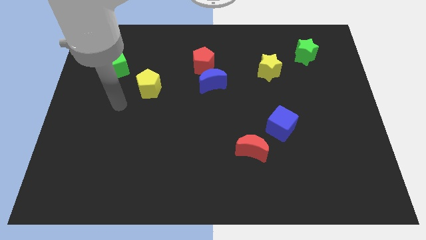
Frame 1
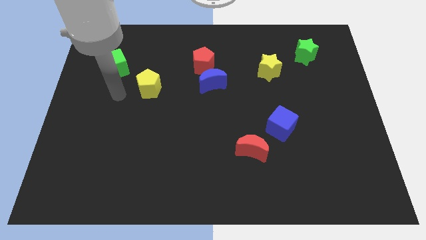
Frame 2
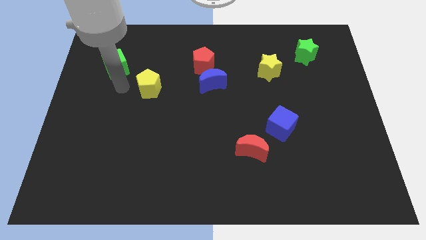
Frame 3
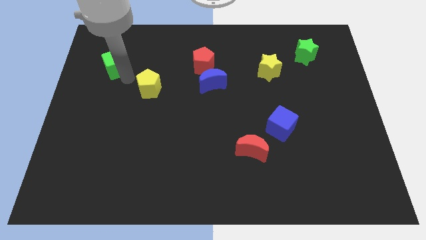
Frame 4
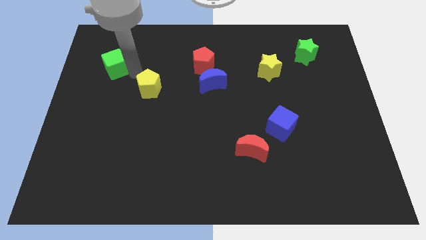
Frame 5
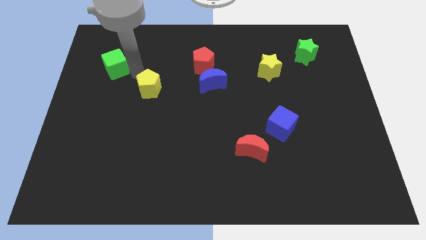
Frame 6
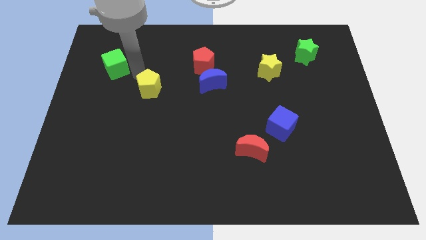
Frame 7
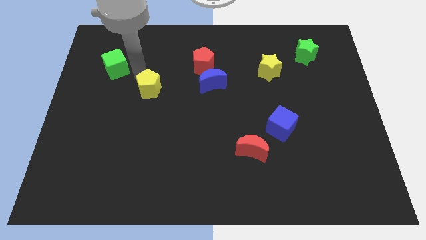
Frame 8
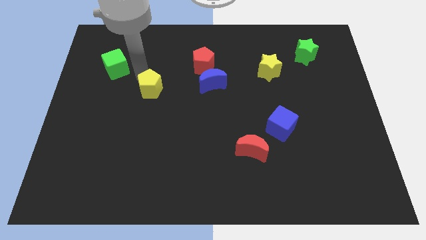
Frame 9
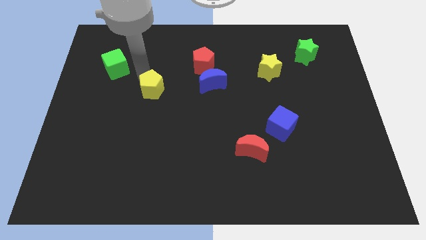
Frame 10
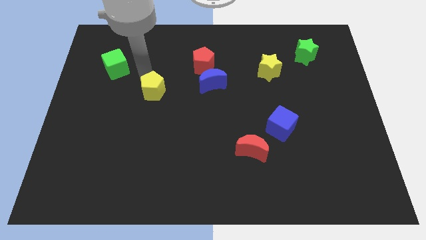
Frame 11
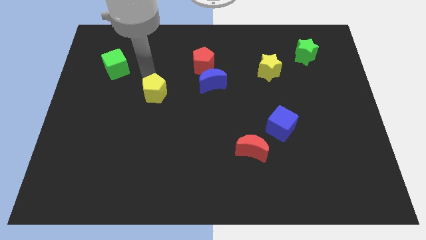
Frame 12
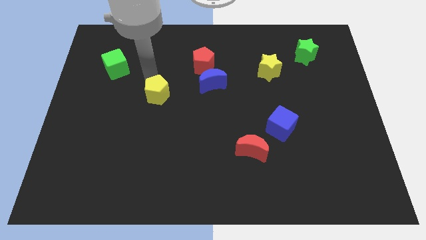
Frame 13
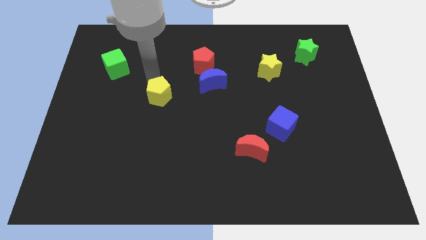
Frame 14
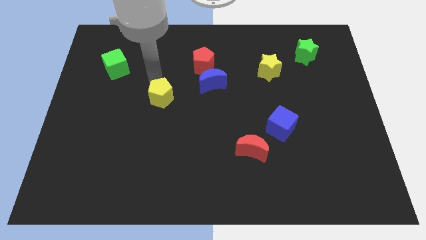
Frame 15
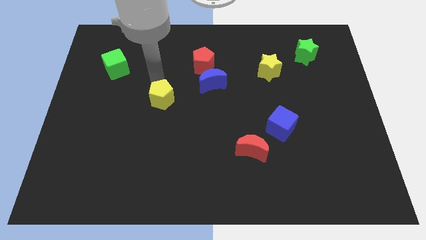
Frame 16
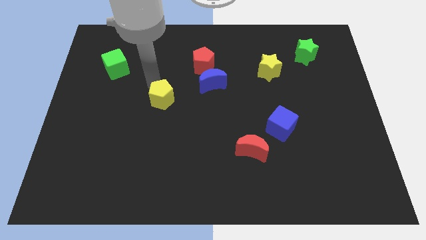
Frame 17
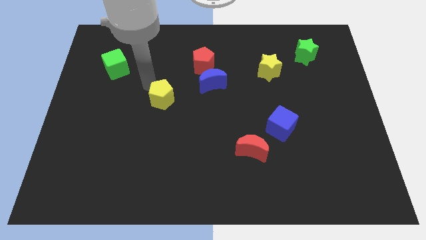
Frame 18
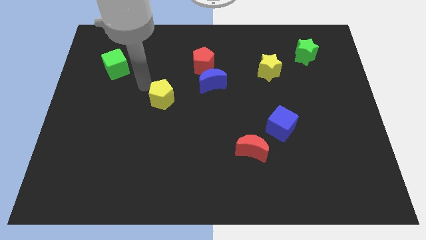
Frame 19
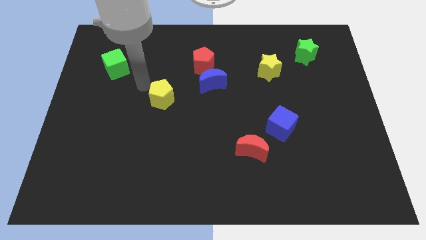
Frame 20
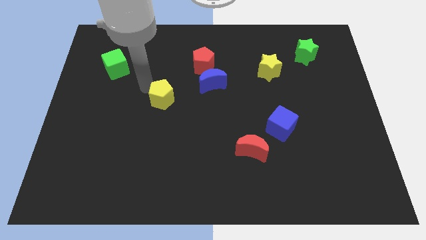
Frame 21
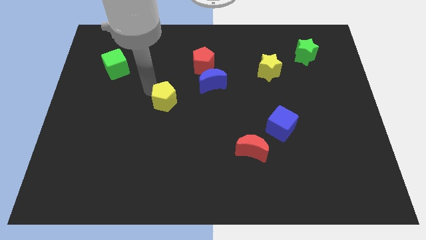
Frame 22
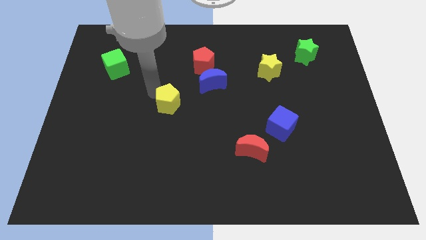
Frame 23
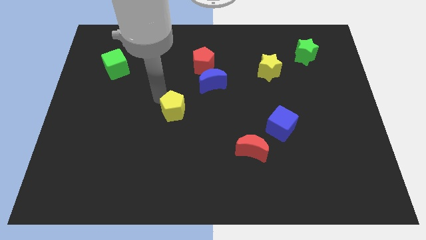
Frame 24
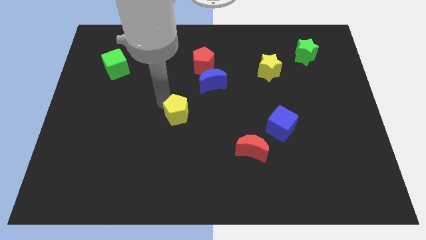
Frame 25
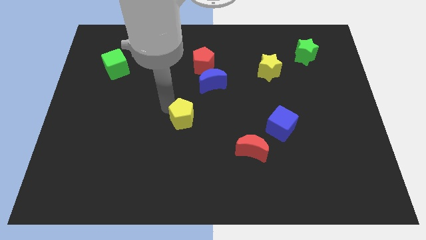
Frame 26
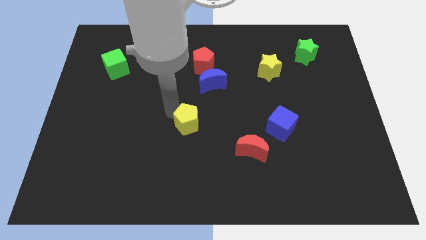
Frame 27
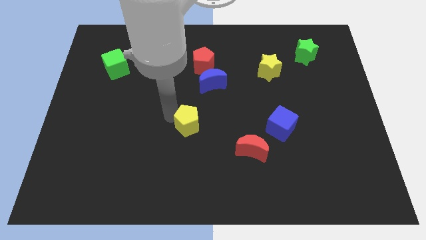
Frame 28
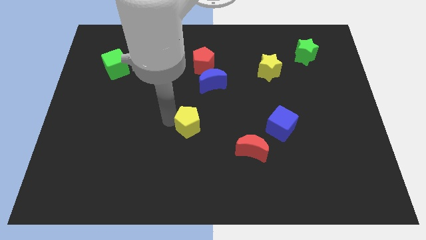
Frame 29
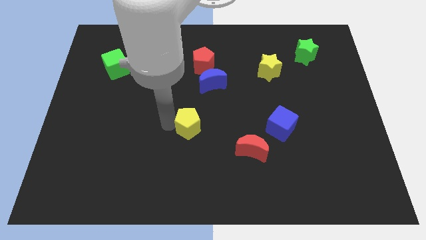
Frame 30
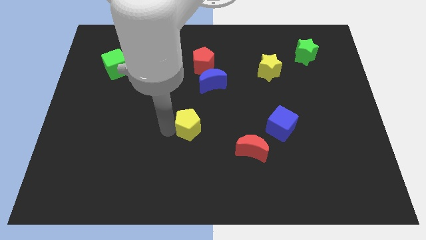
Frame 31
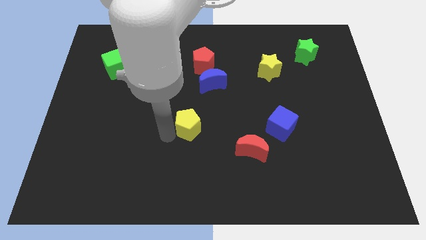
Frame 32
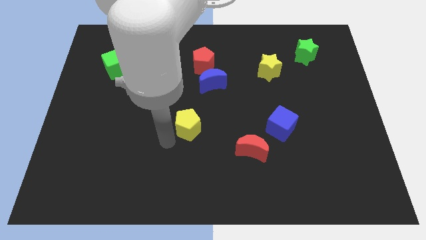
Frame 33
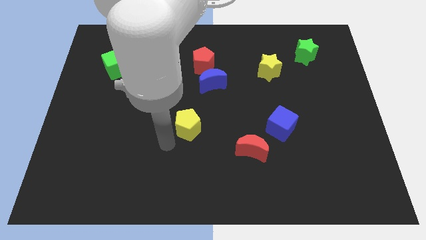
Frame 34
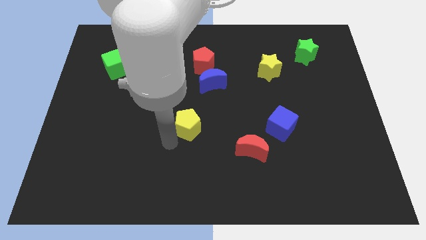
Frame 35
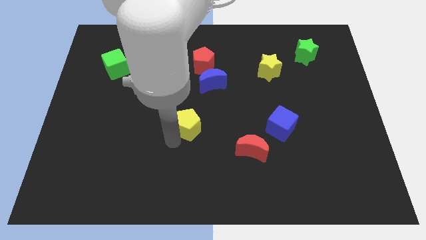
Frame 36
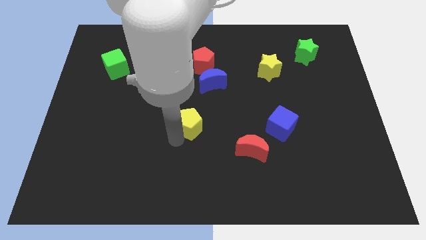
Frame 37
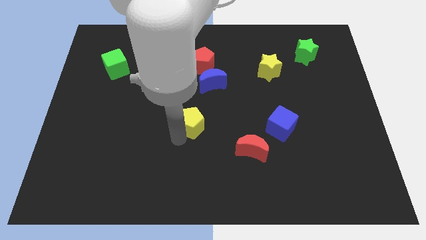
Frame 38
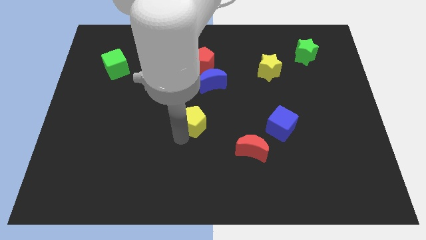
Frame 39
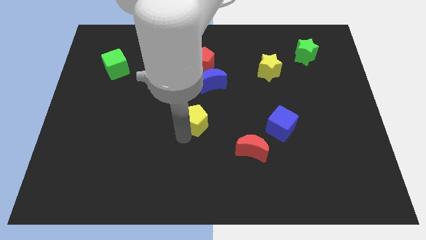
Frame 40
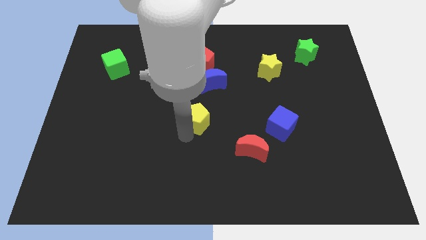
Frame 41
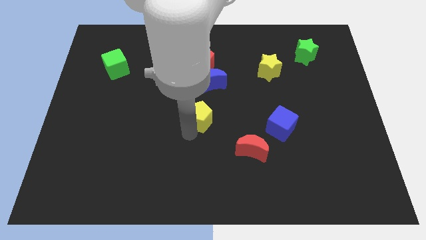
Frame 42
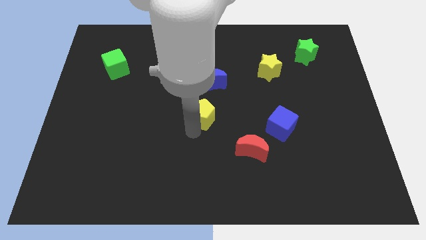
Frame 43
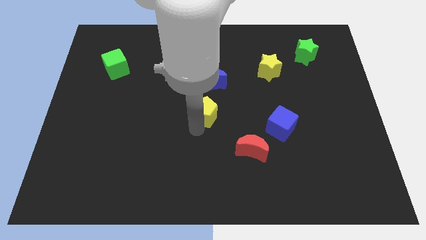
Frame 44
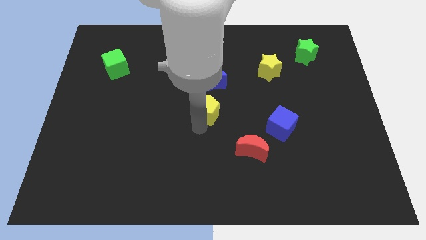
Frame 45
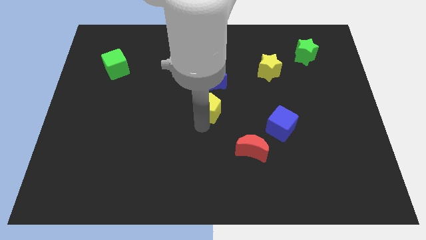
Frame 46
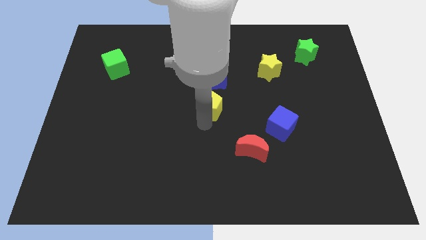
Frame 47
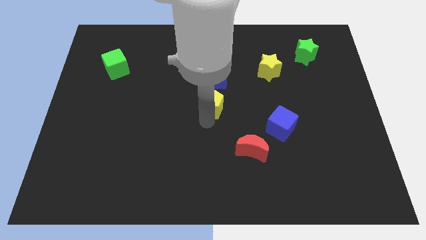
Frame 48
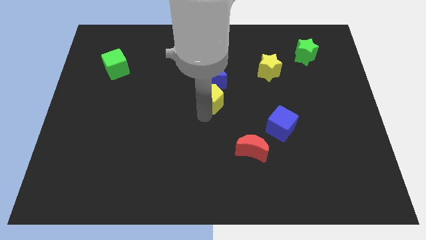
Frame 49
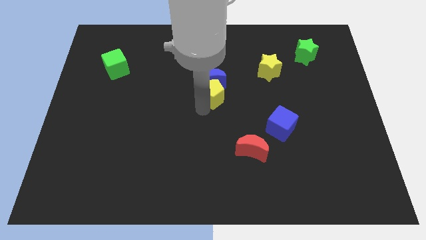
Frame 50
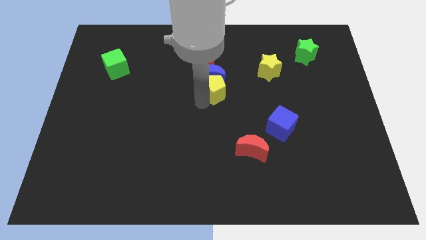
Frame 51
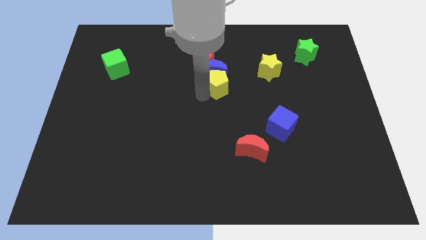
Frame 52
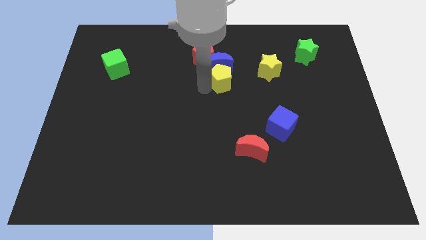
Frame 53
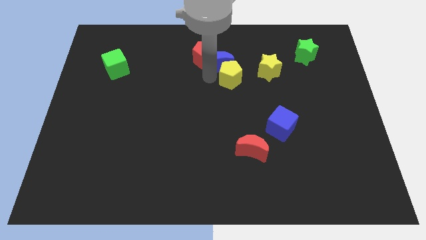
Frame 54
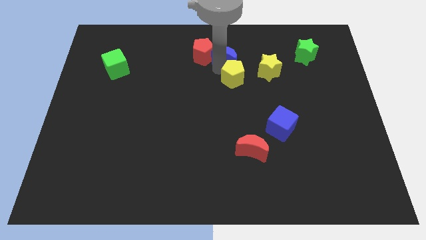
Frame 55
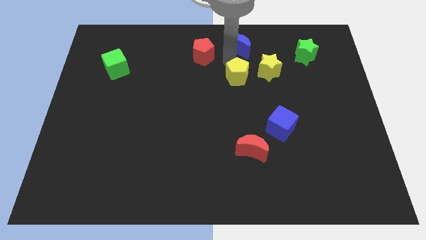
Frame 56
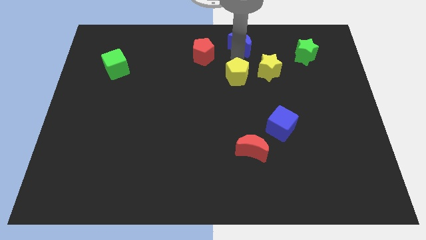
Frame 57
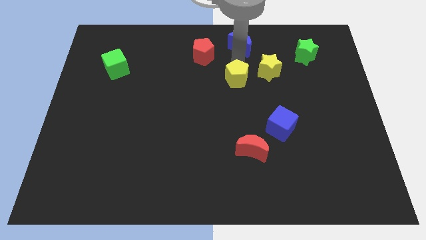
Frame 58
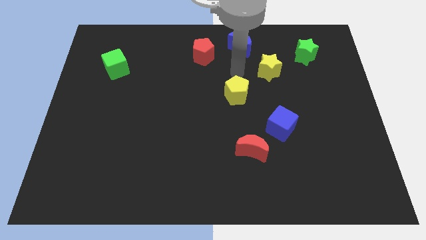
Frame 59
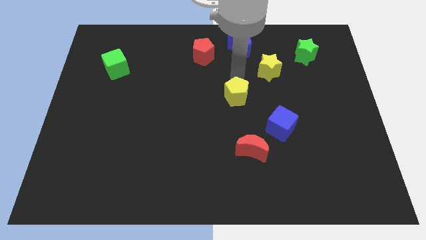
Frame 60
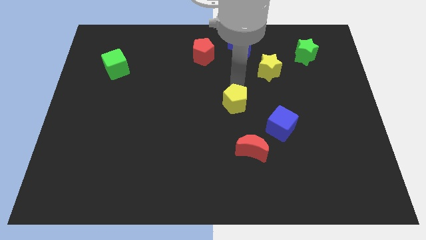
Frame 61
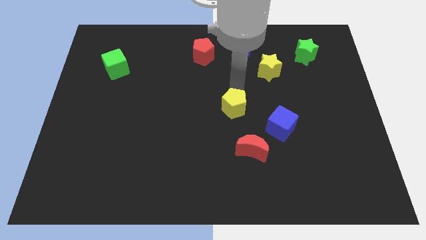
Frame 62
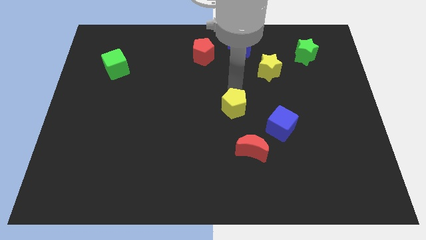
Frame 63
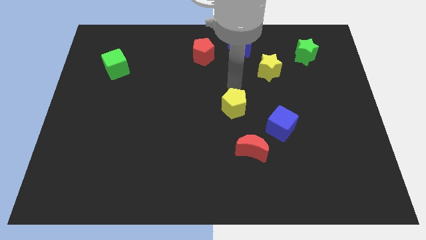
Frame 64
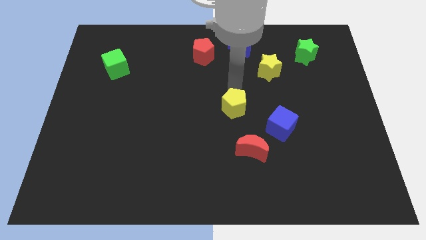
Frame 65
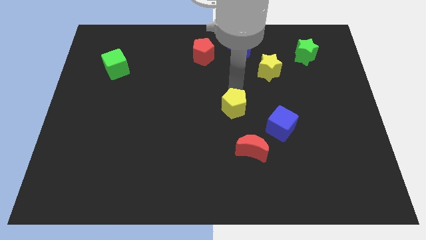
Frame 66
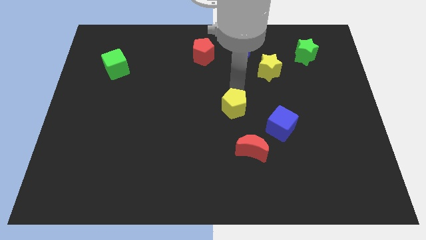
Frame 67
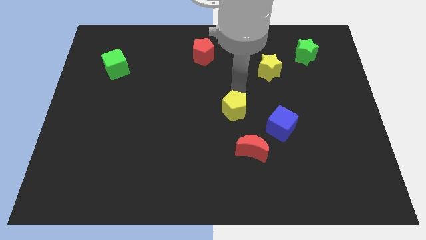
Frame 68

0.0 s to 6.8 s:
push the yellow pentagon left of the blue cube

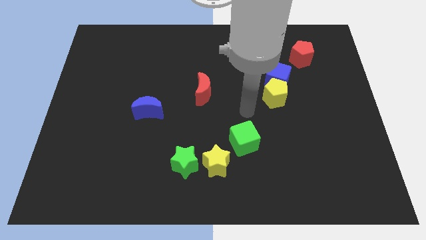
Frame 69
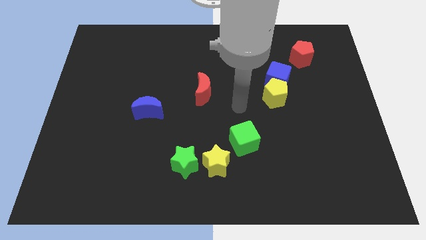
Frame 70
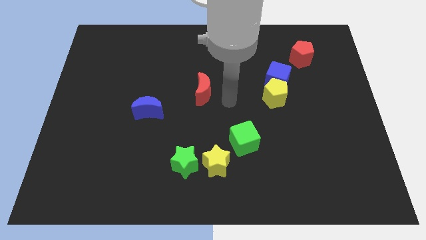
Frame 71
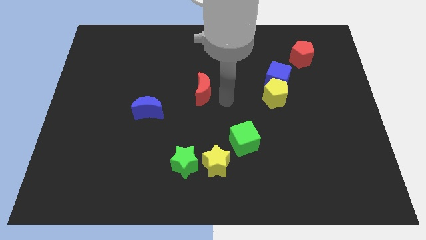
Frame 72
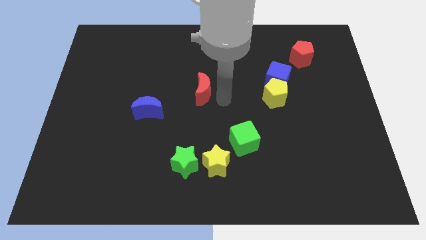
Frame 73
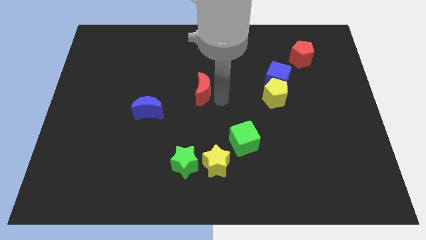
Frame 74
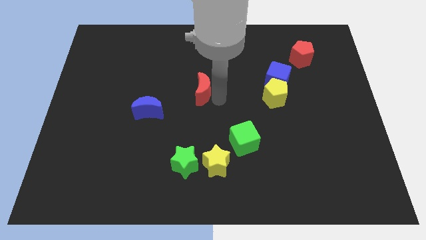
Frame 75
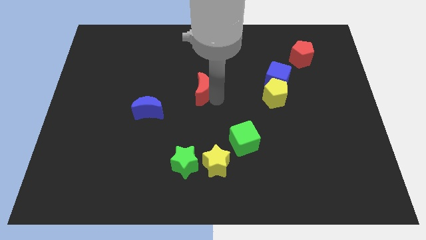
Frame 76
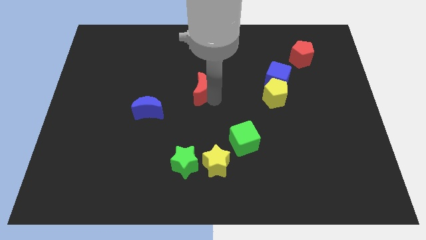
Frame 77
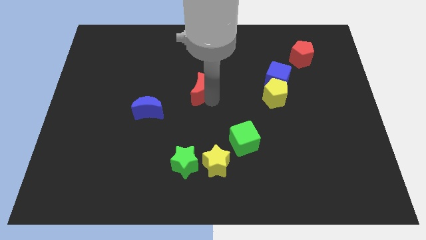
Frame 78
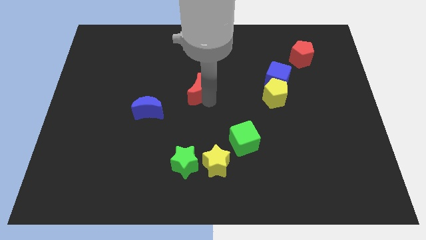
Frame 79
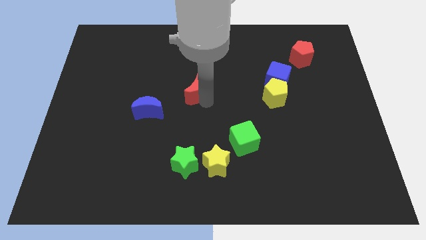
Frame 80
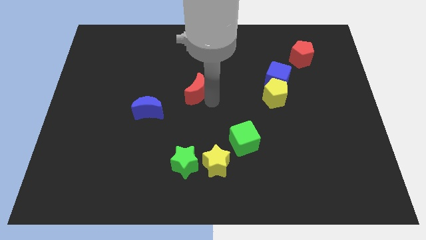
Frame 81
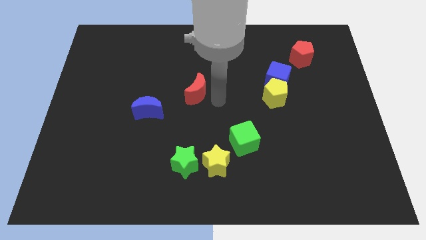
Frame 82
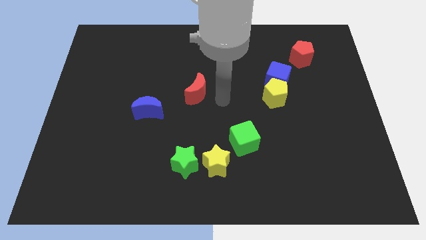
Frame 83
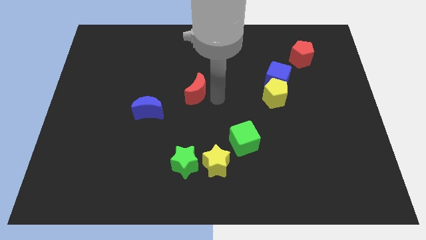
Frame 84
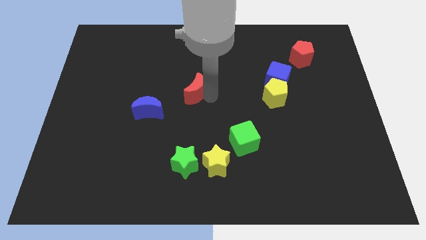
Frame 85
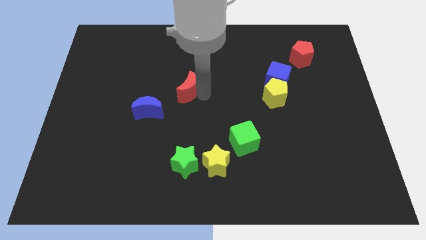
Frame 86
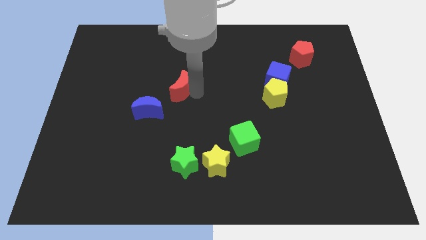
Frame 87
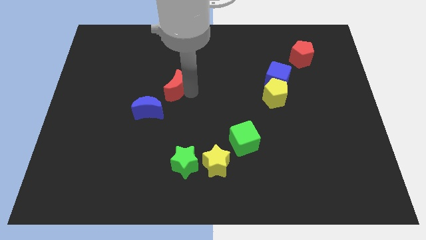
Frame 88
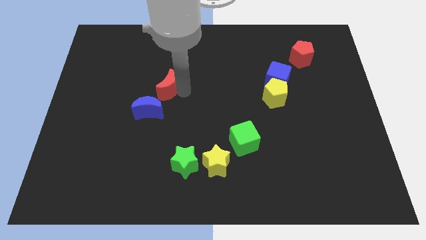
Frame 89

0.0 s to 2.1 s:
slide the red moon to the top side of the blue moon
